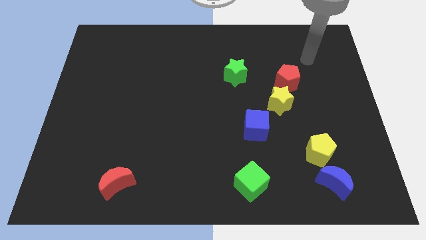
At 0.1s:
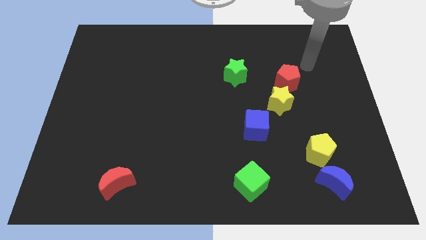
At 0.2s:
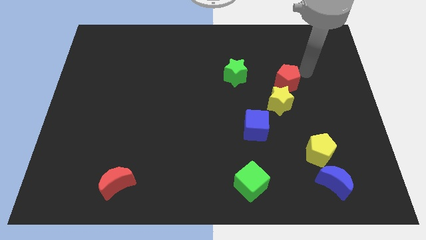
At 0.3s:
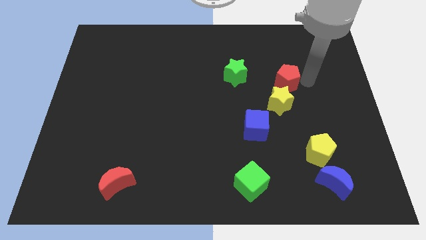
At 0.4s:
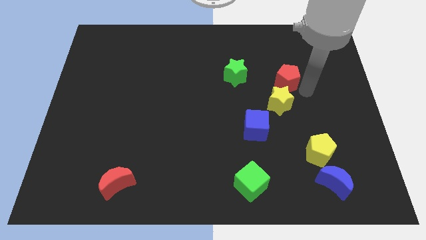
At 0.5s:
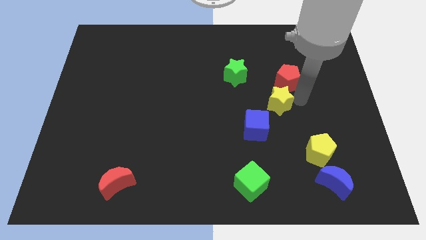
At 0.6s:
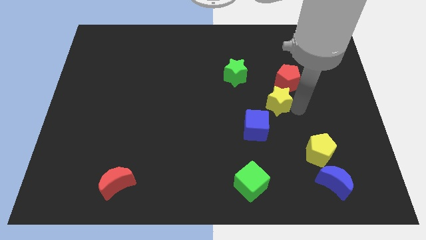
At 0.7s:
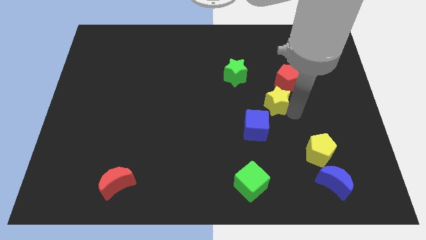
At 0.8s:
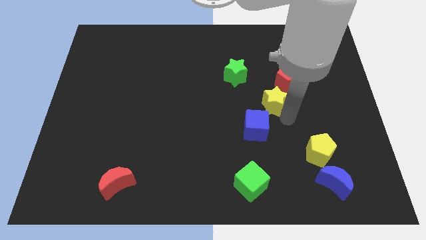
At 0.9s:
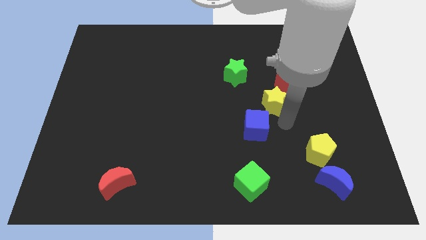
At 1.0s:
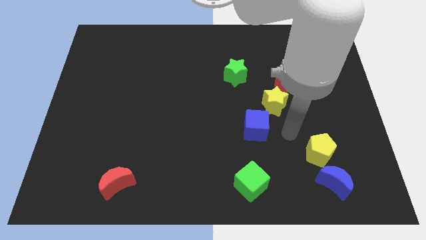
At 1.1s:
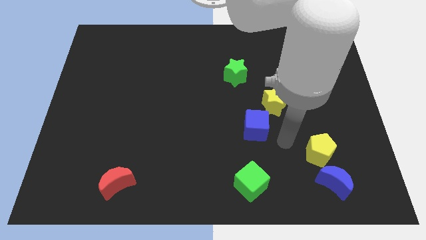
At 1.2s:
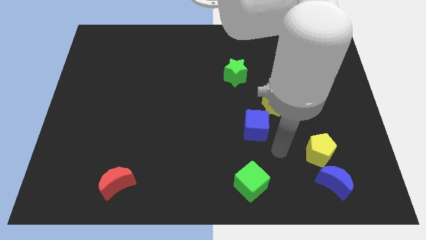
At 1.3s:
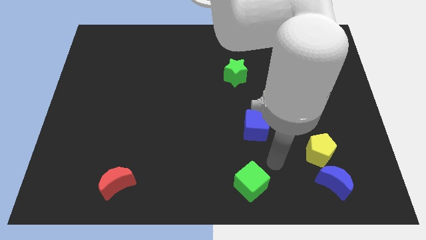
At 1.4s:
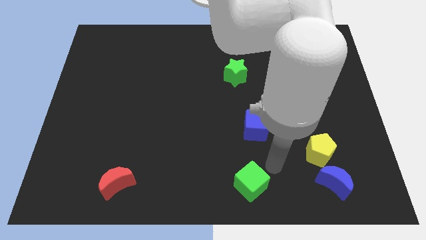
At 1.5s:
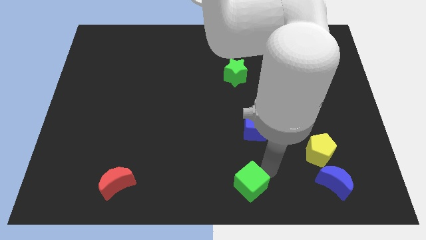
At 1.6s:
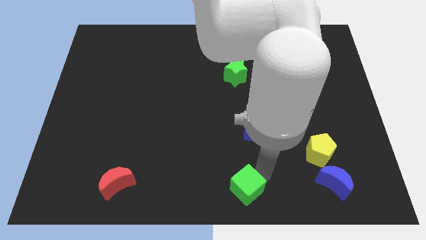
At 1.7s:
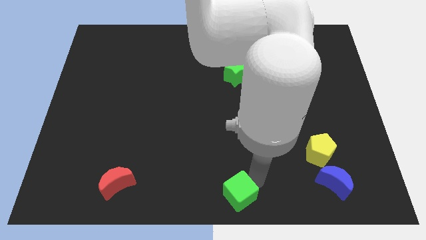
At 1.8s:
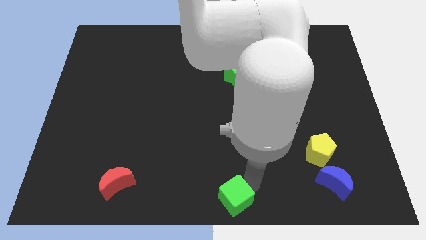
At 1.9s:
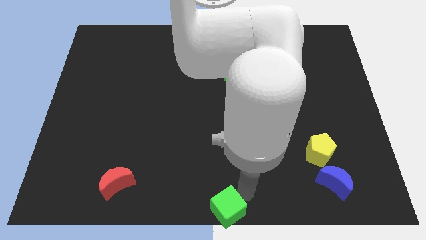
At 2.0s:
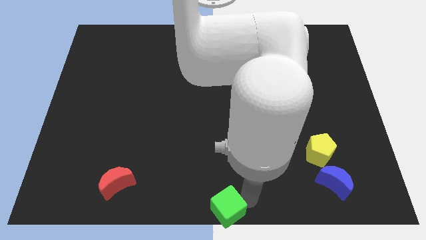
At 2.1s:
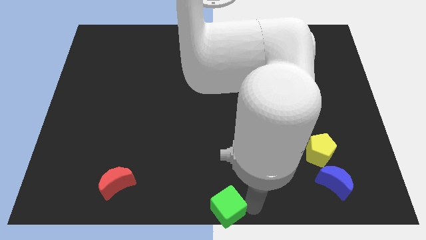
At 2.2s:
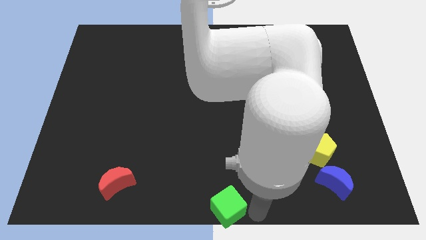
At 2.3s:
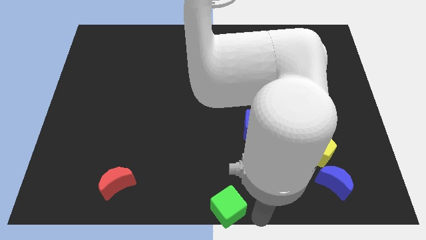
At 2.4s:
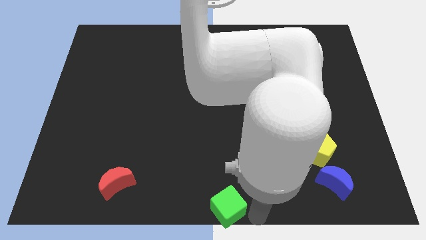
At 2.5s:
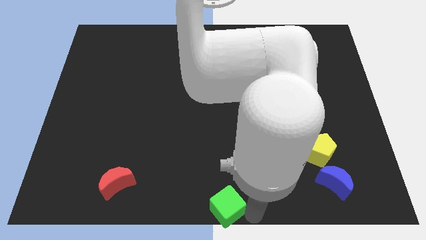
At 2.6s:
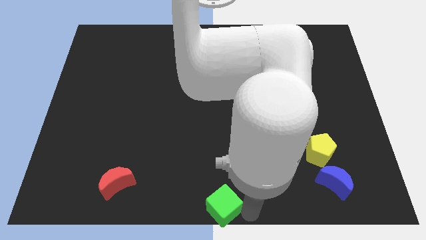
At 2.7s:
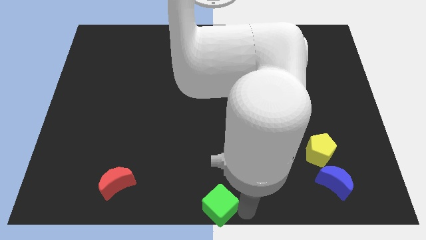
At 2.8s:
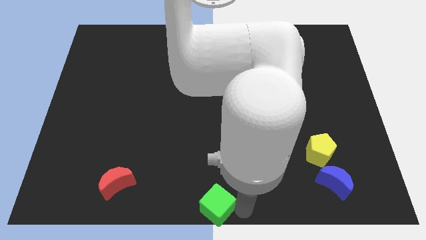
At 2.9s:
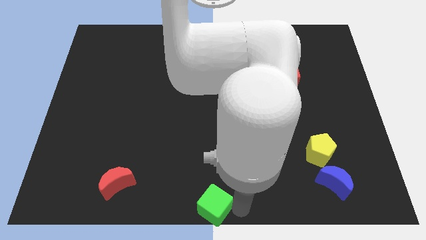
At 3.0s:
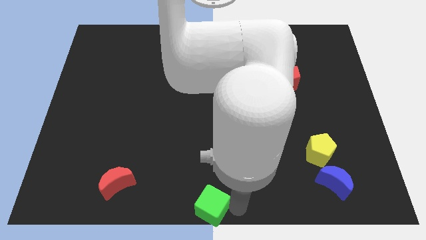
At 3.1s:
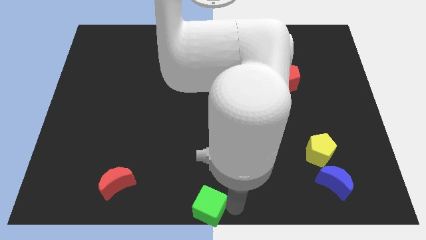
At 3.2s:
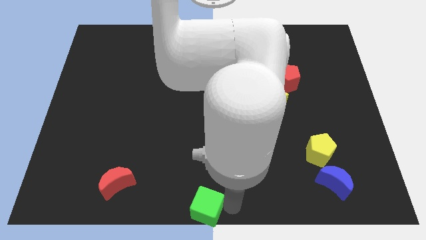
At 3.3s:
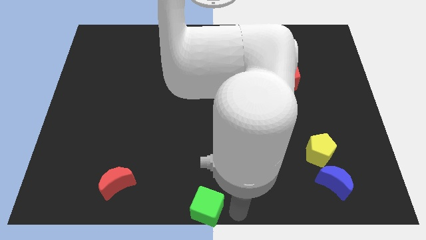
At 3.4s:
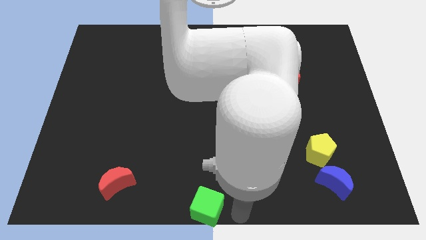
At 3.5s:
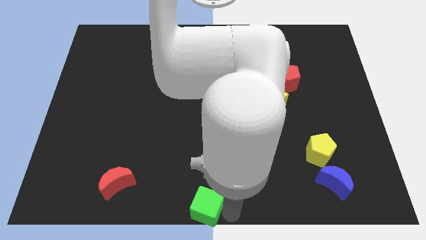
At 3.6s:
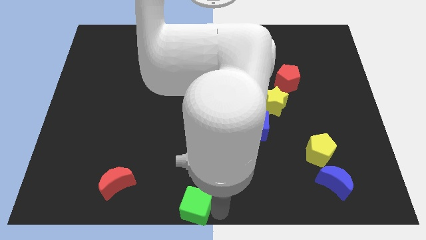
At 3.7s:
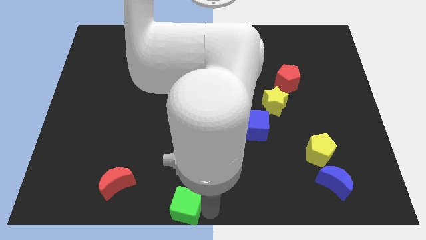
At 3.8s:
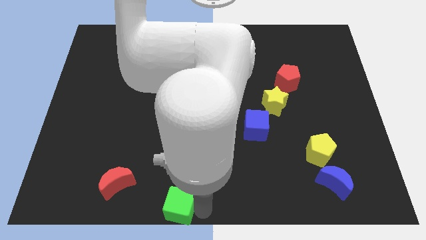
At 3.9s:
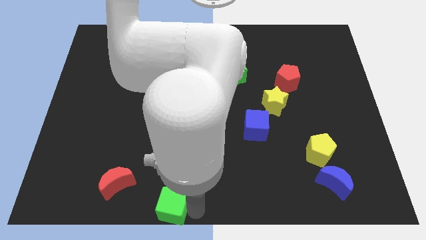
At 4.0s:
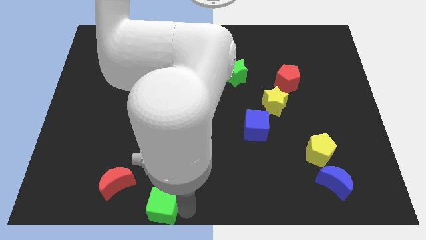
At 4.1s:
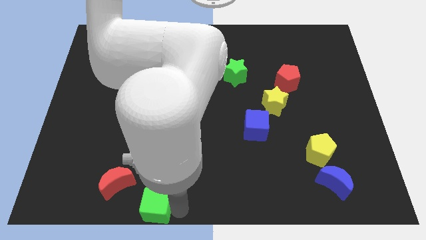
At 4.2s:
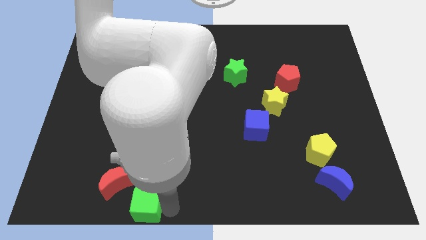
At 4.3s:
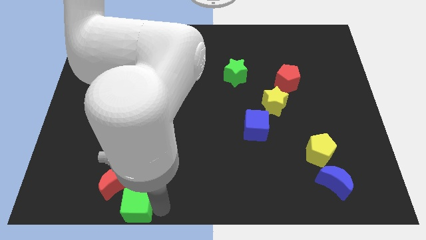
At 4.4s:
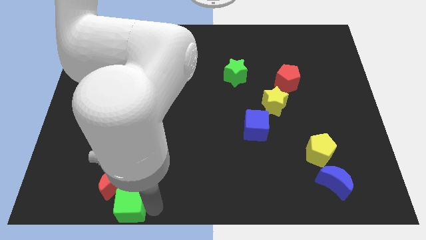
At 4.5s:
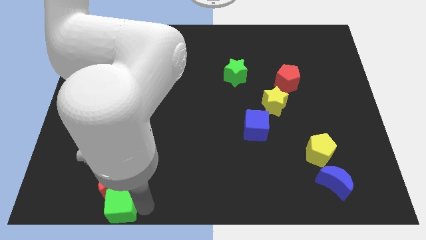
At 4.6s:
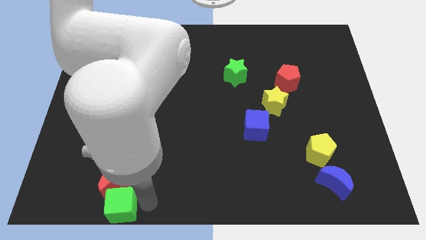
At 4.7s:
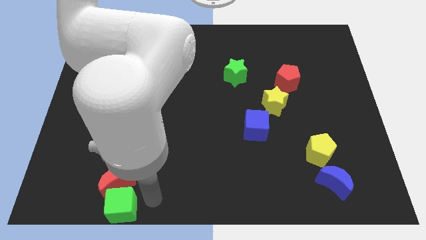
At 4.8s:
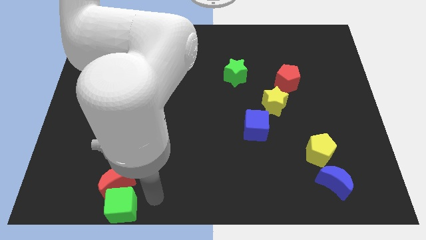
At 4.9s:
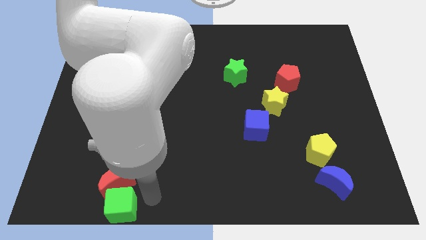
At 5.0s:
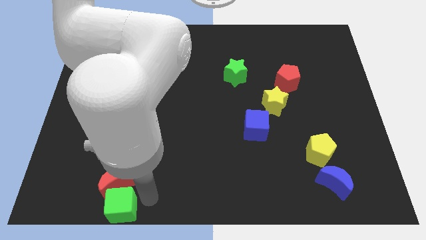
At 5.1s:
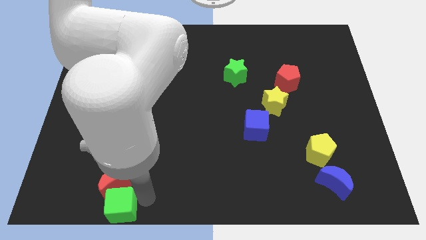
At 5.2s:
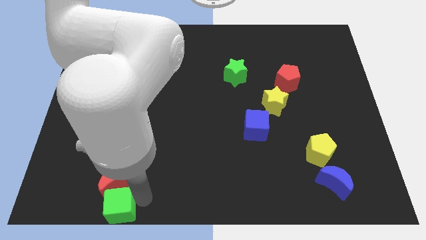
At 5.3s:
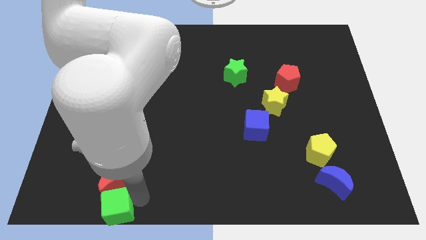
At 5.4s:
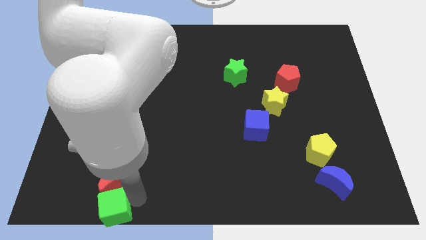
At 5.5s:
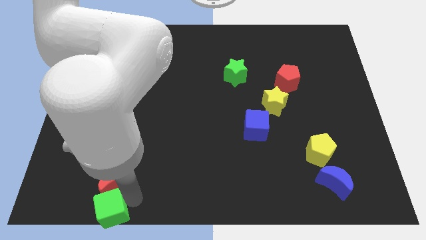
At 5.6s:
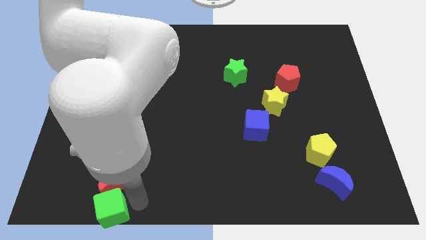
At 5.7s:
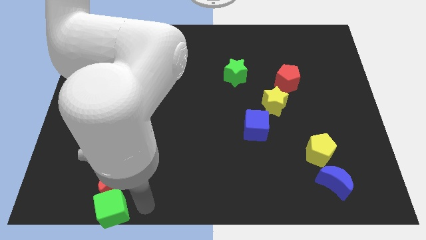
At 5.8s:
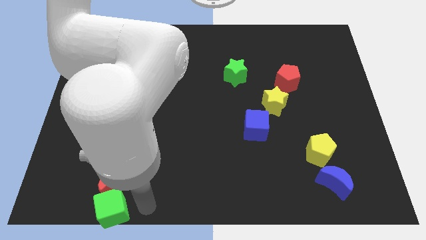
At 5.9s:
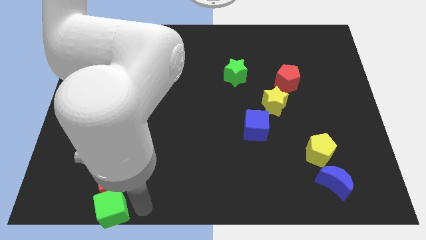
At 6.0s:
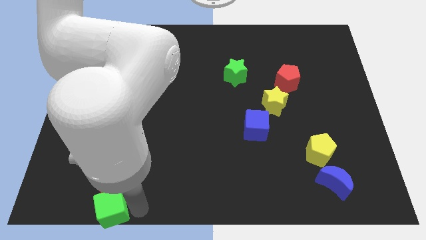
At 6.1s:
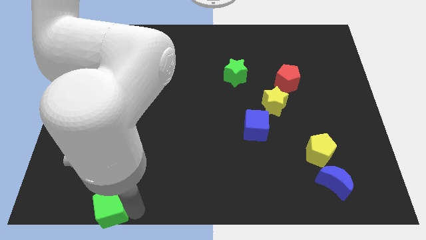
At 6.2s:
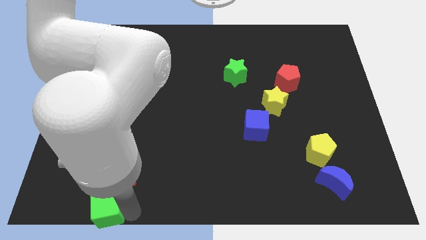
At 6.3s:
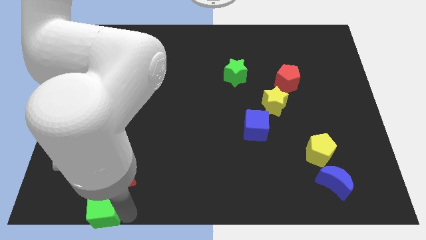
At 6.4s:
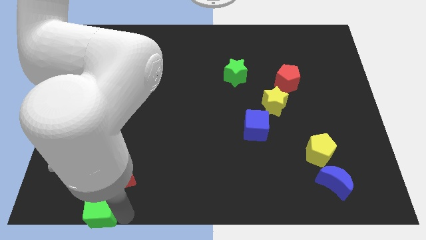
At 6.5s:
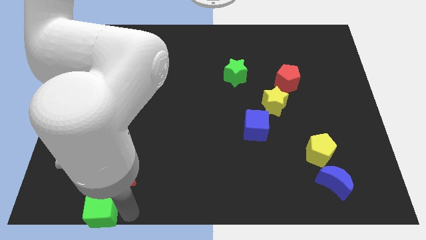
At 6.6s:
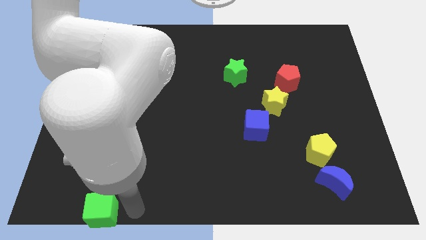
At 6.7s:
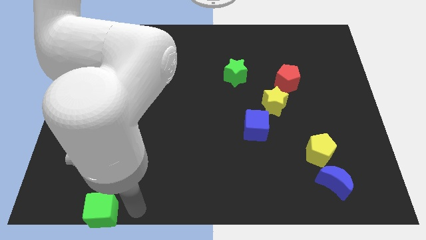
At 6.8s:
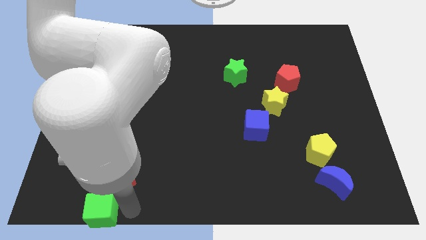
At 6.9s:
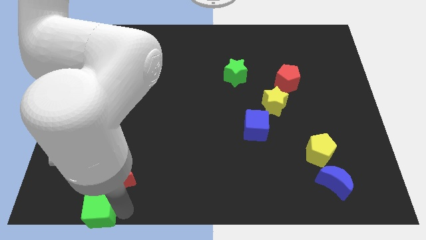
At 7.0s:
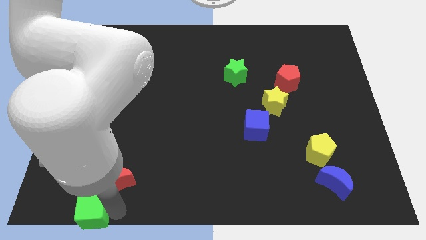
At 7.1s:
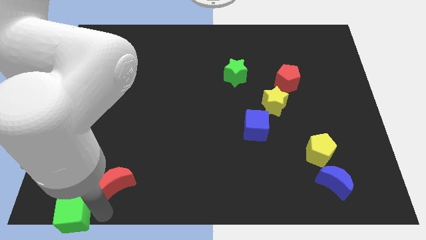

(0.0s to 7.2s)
push the green cube to the lower left corner
